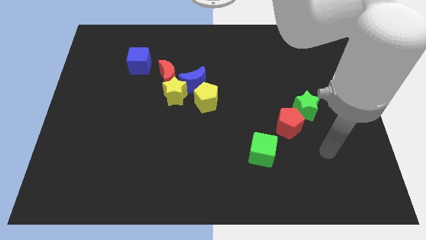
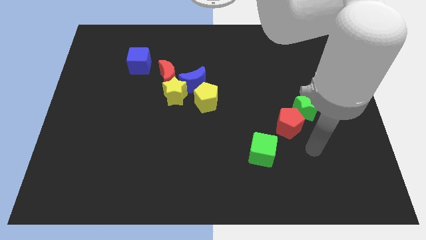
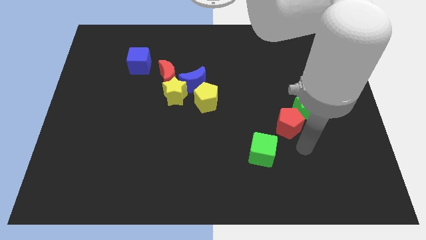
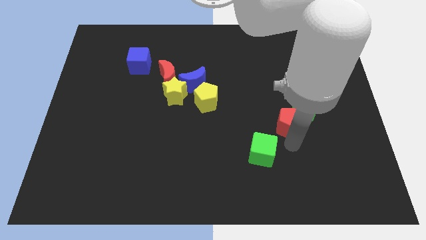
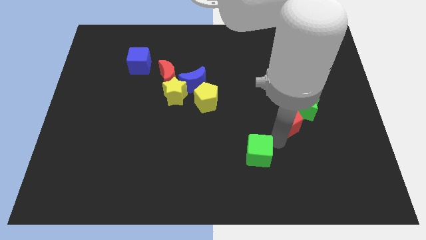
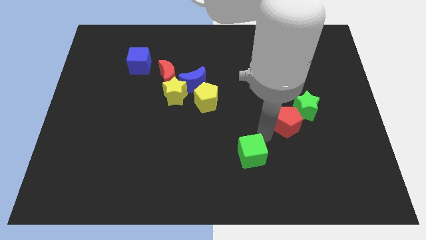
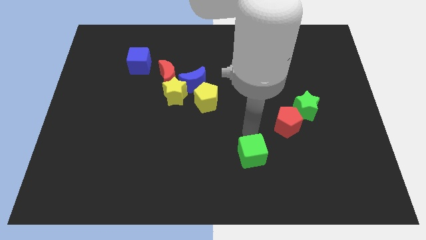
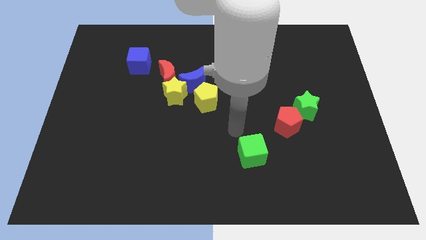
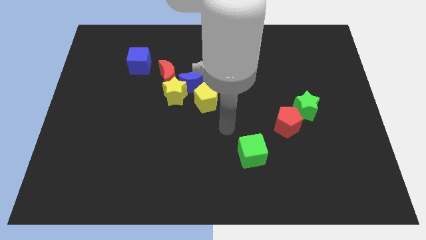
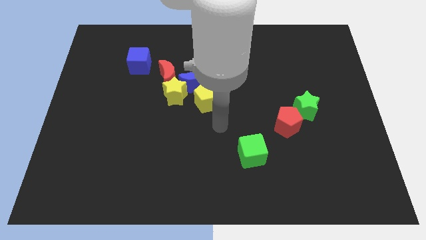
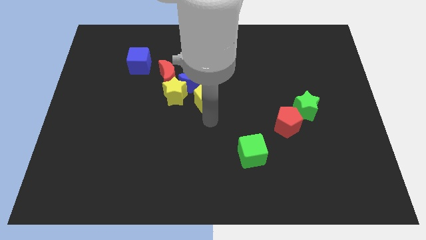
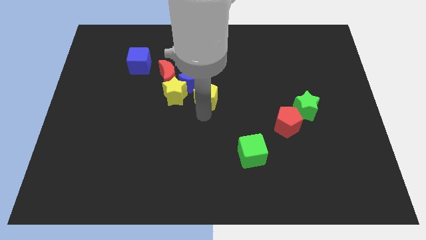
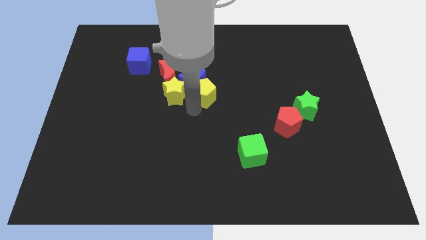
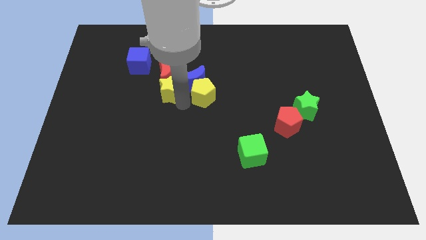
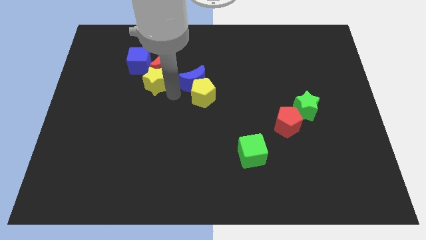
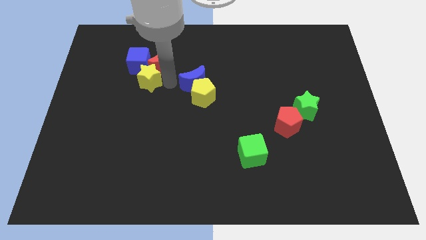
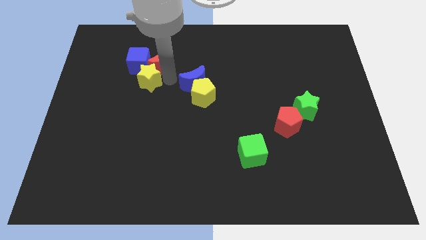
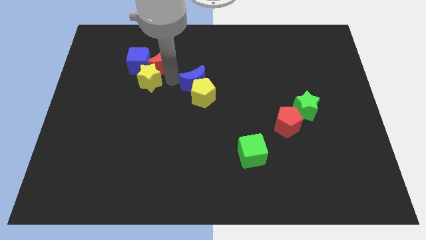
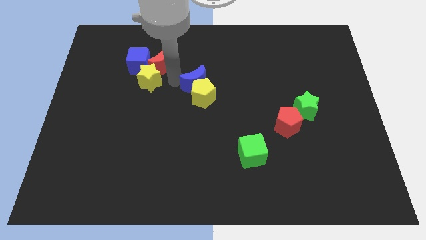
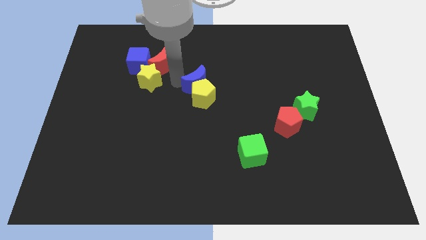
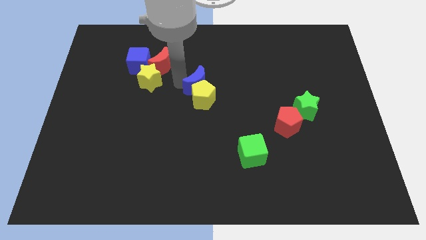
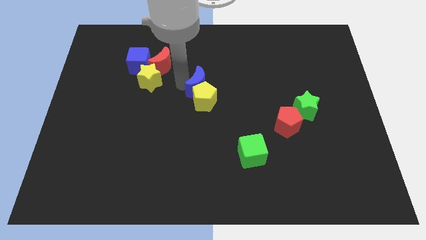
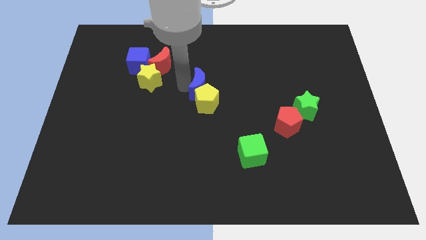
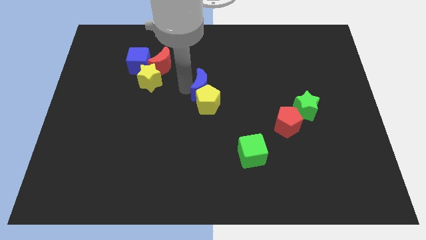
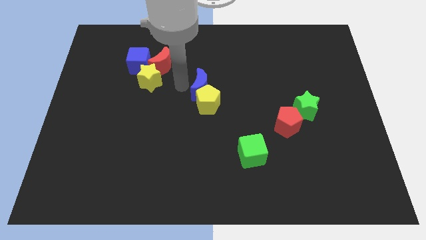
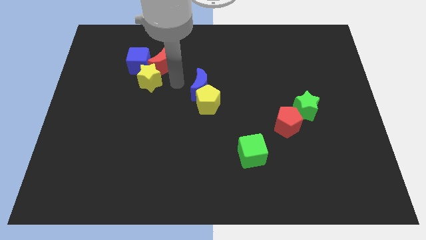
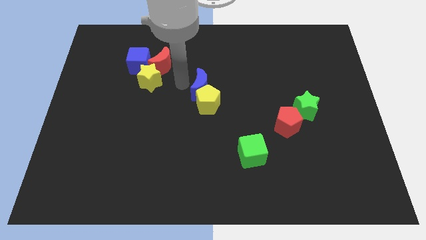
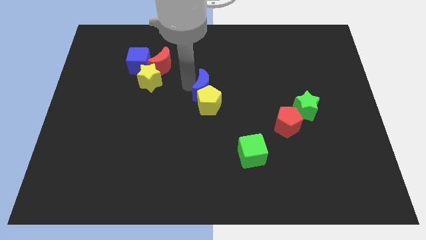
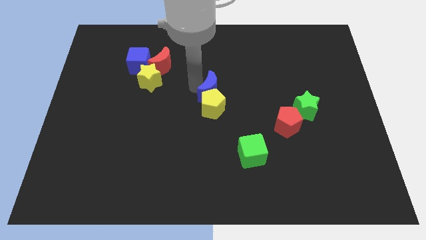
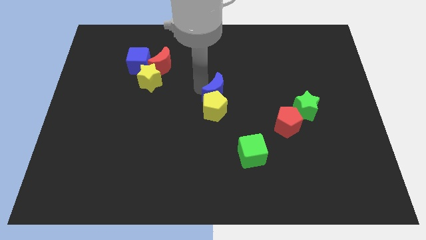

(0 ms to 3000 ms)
separate the blue moon from the group

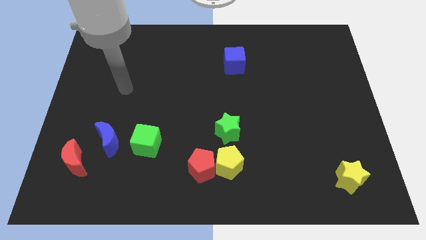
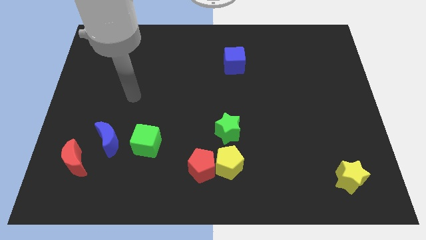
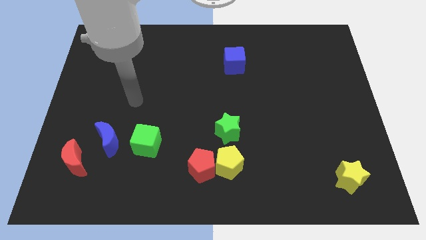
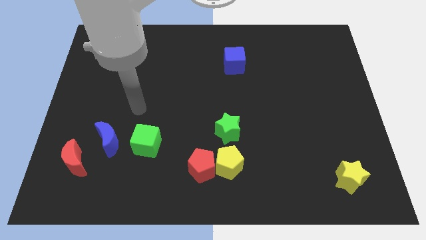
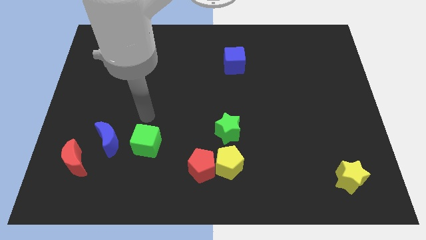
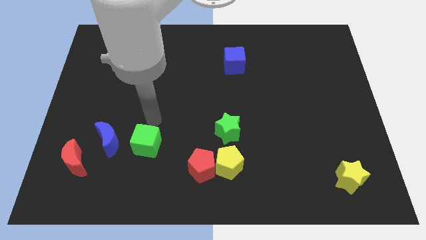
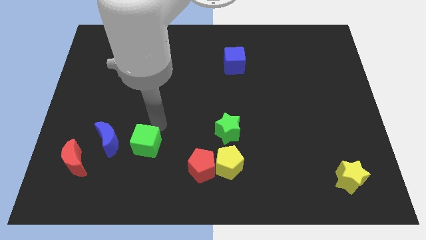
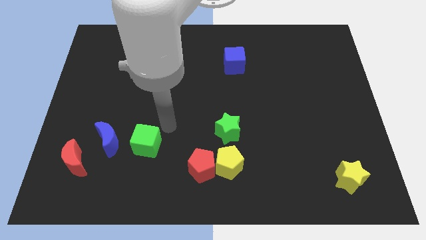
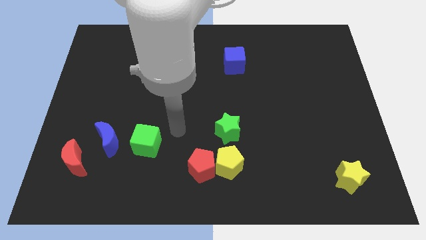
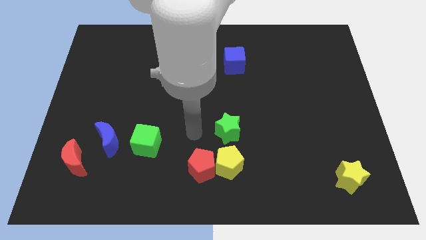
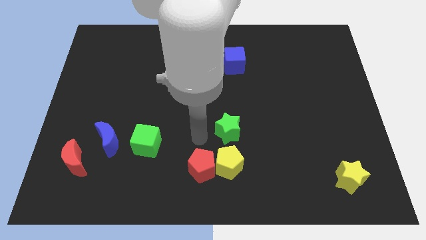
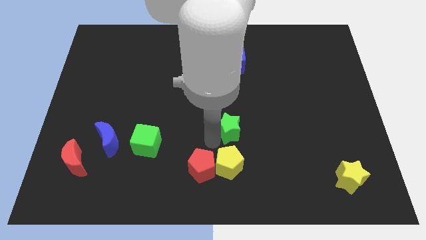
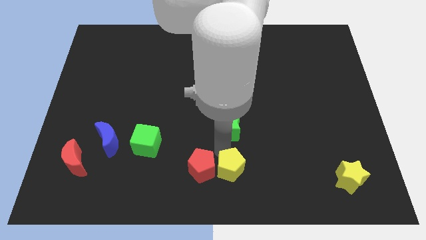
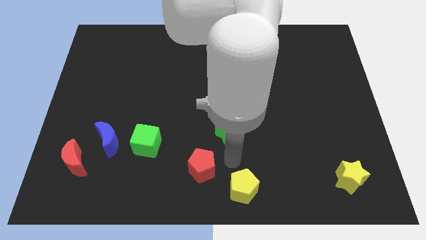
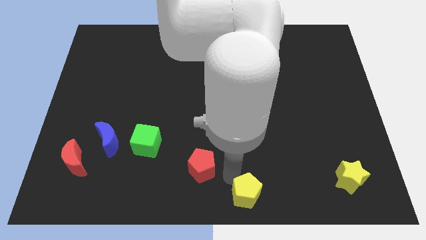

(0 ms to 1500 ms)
separate the red pentagon from the yellow pentagon

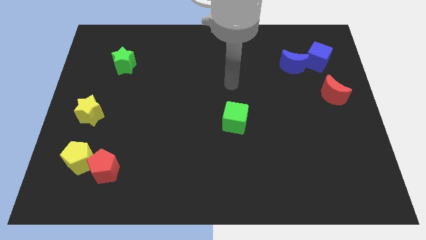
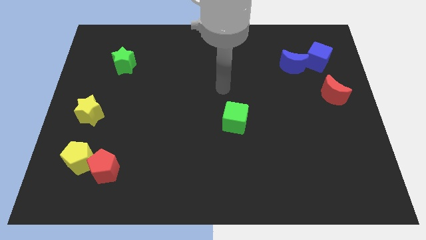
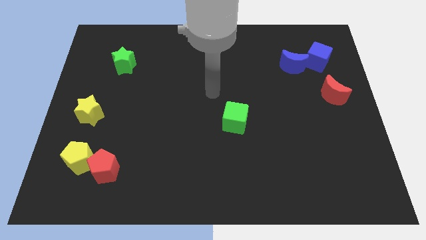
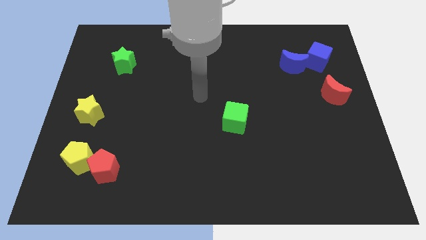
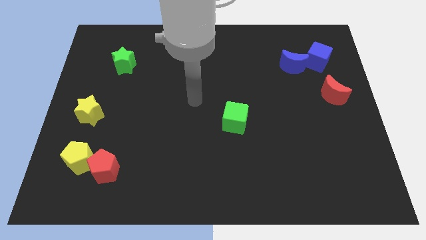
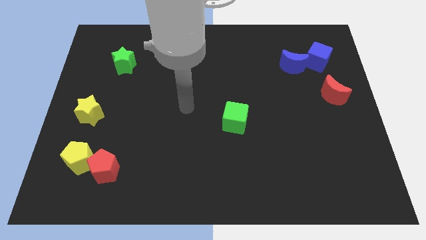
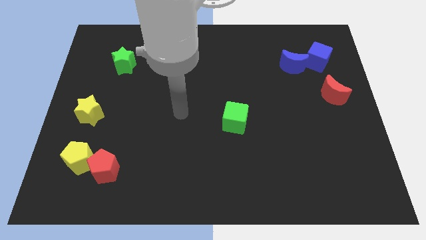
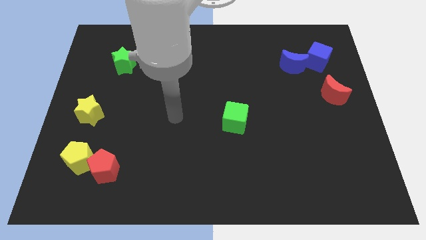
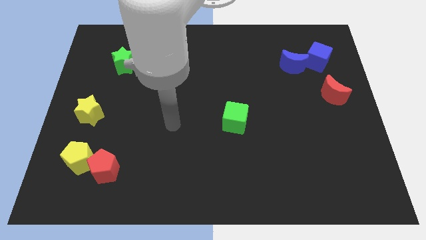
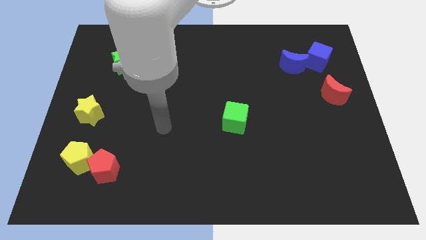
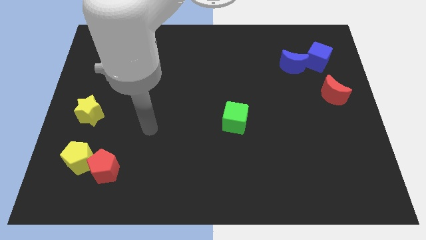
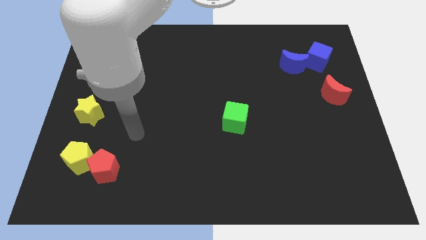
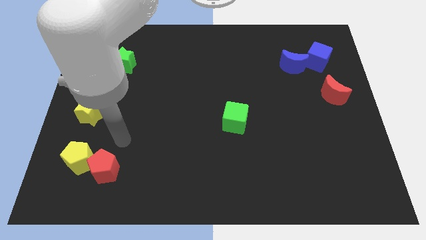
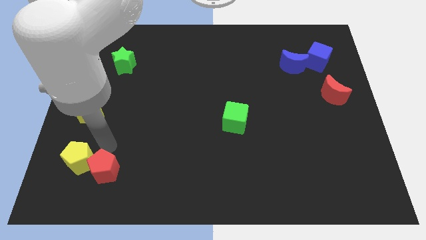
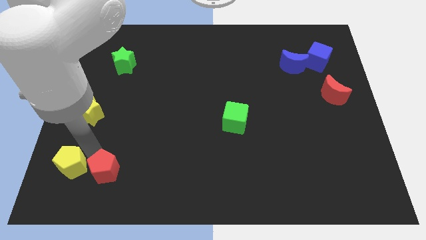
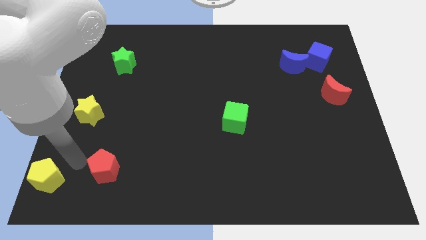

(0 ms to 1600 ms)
pull the red pentagon apart from the yellow pentagon

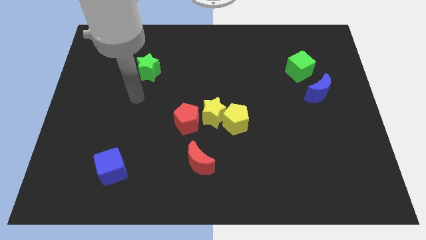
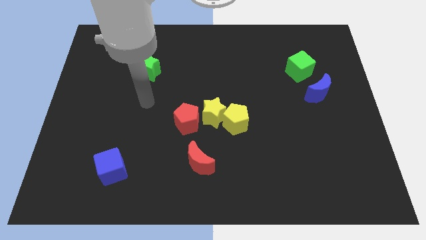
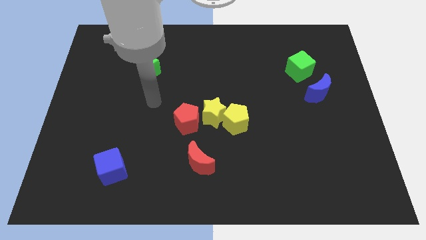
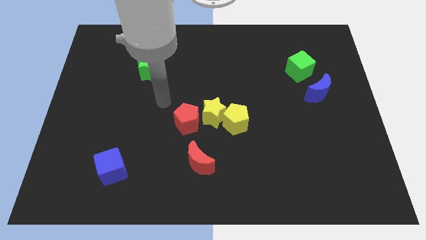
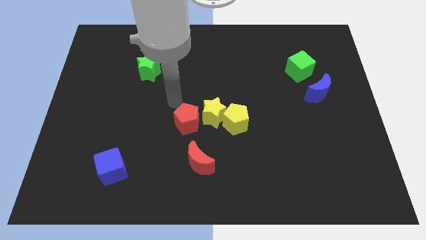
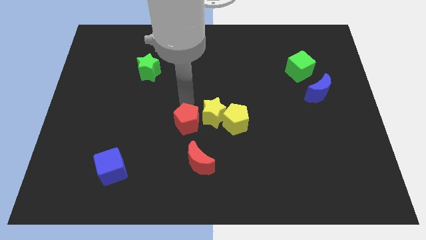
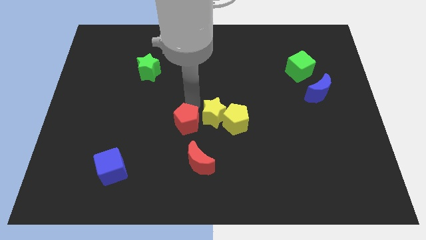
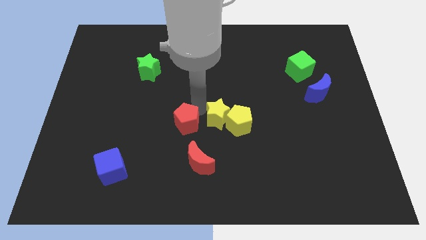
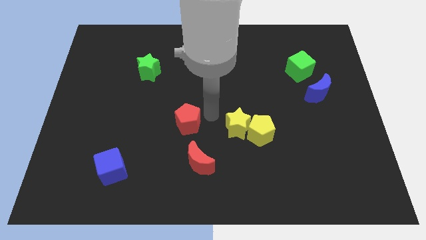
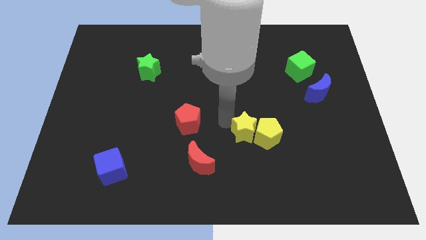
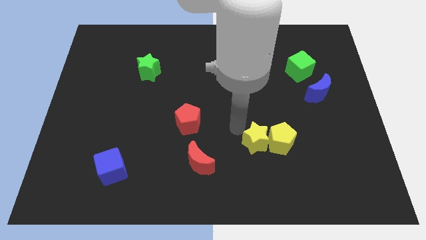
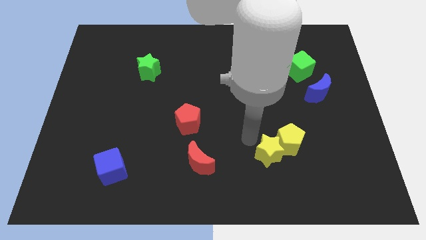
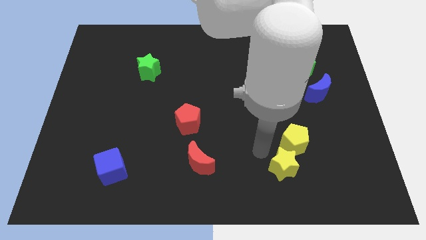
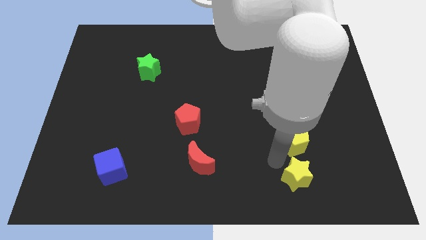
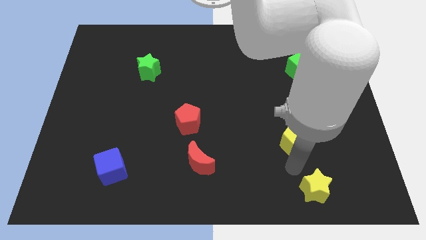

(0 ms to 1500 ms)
separate the yellow pentagon from the yellow star

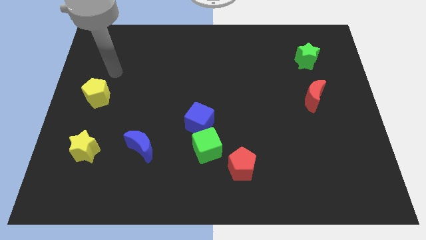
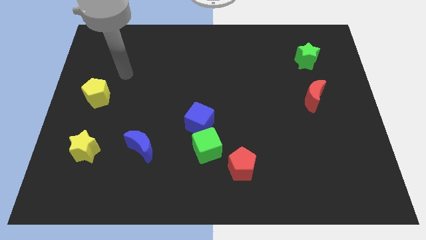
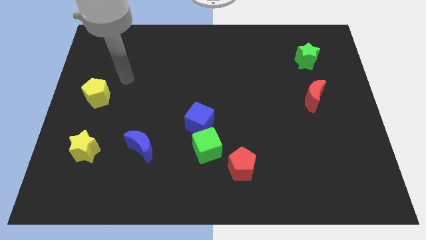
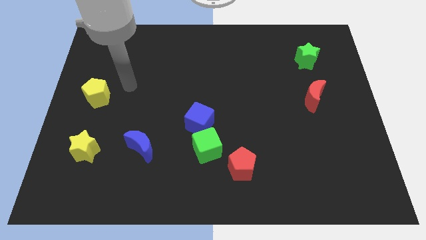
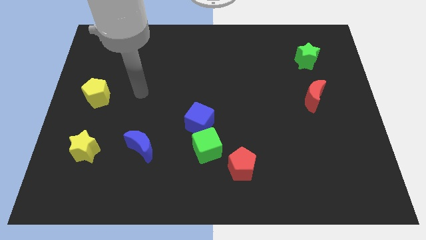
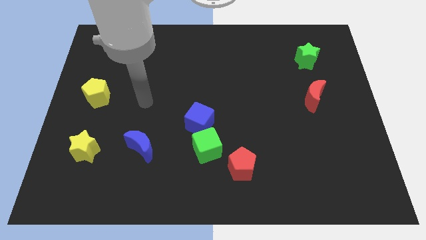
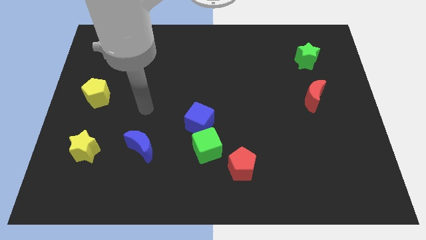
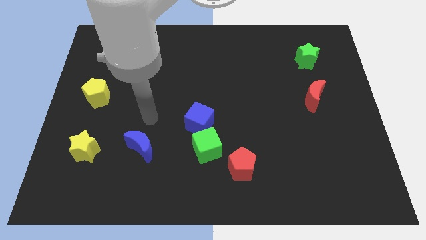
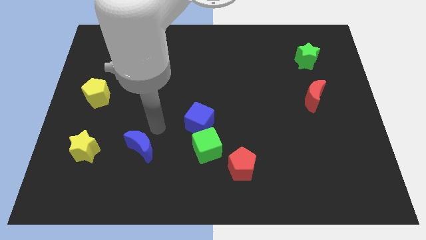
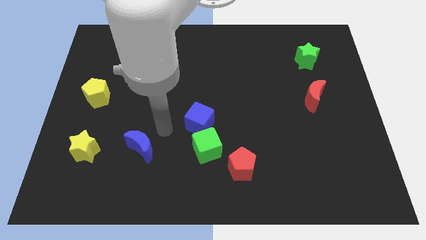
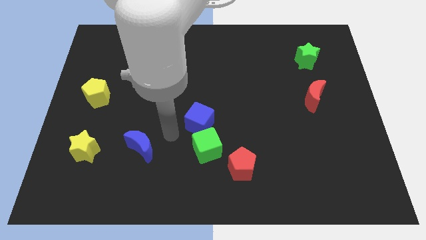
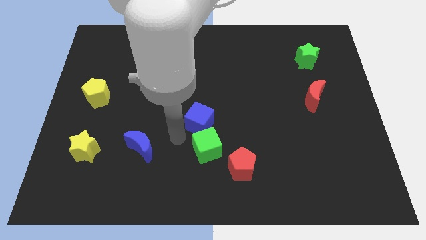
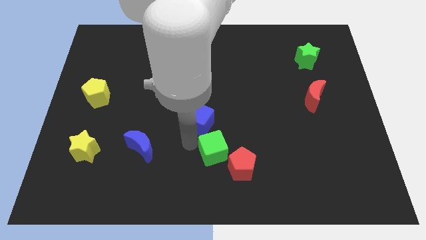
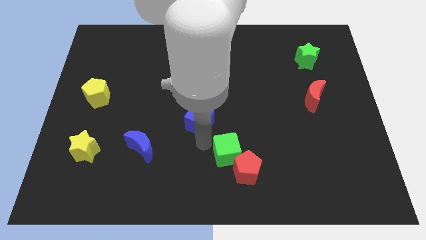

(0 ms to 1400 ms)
separate the blue cube from the green cube

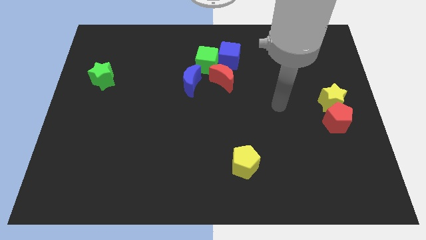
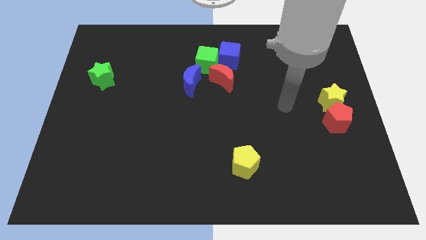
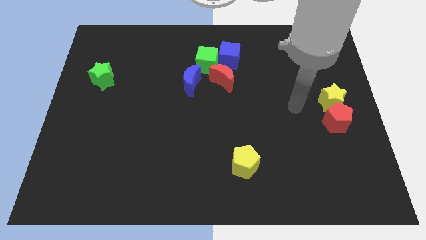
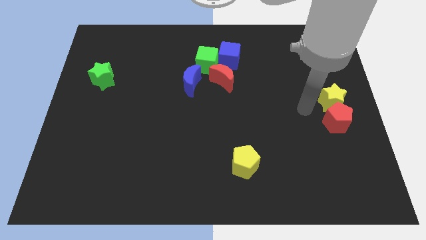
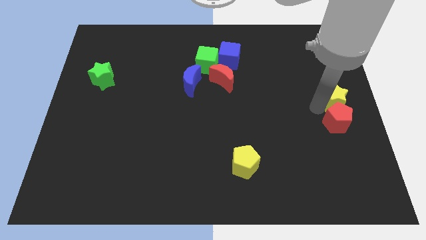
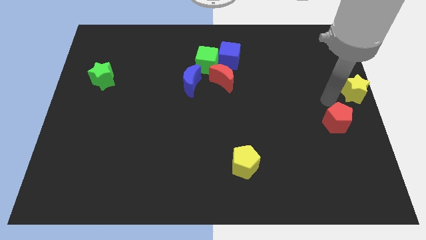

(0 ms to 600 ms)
move the red pentagon away from the yellow star
